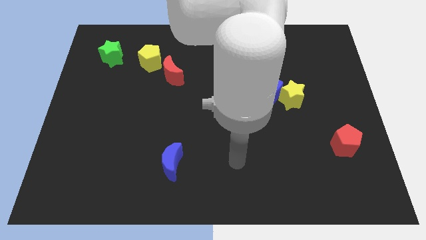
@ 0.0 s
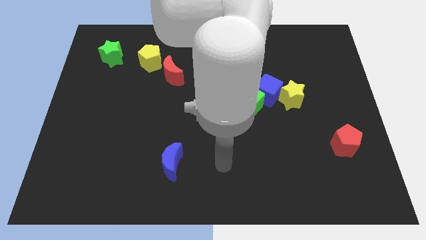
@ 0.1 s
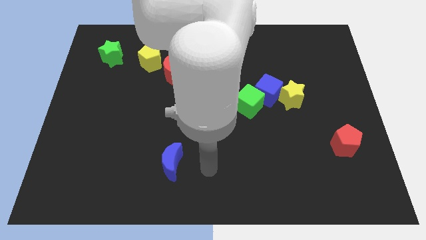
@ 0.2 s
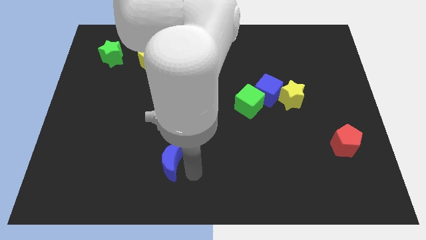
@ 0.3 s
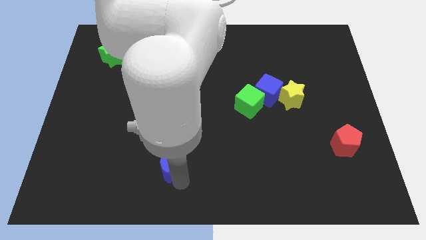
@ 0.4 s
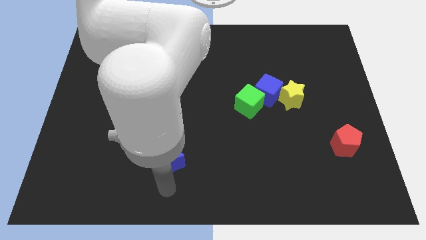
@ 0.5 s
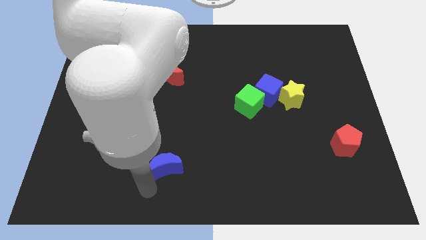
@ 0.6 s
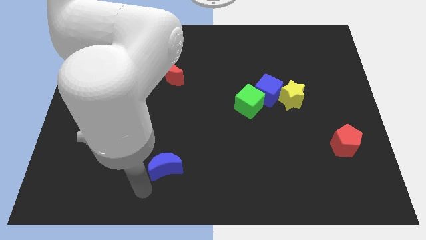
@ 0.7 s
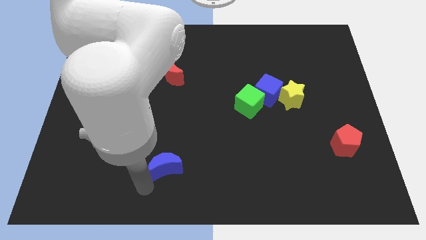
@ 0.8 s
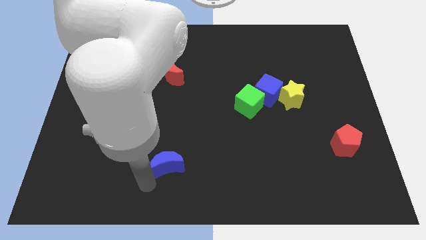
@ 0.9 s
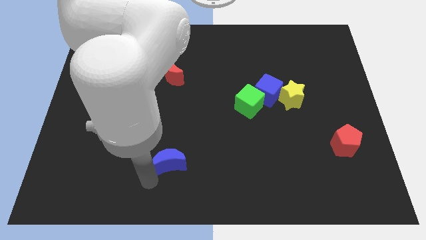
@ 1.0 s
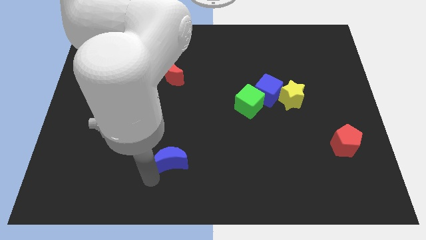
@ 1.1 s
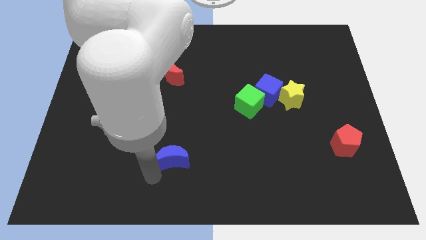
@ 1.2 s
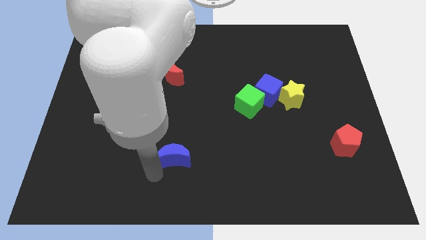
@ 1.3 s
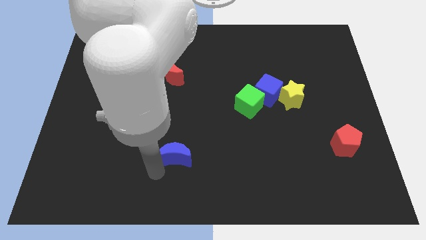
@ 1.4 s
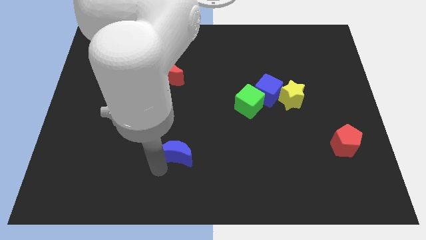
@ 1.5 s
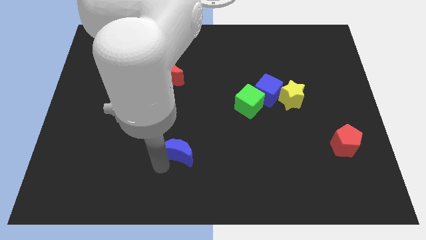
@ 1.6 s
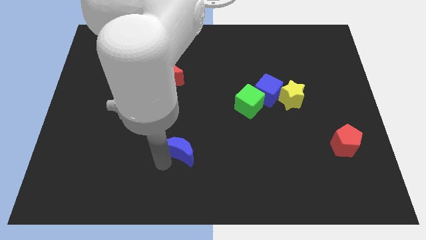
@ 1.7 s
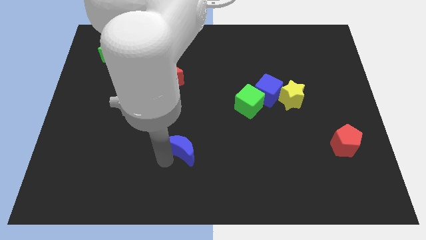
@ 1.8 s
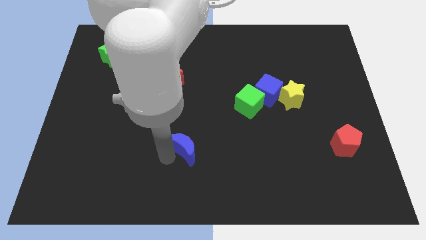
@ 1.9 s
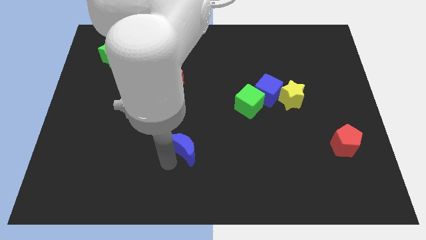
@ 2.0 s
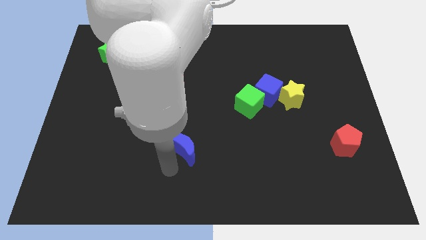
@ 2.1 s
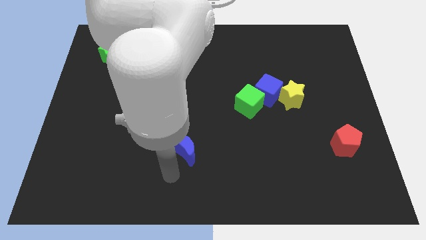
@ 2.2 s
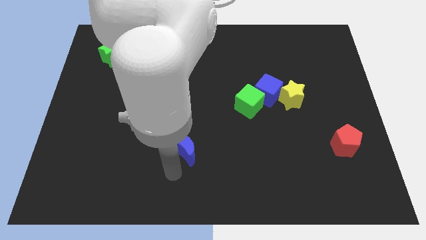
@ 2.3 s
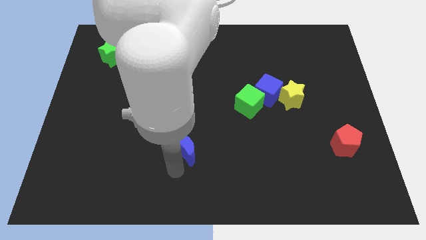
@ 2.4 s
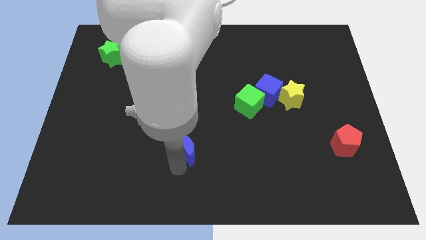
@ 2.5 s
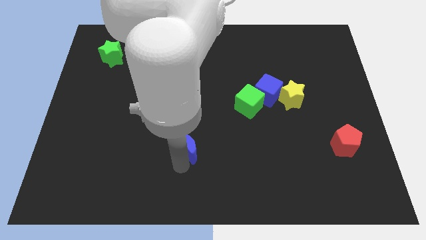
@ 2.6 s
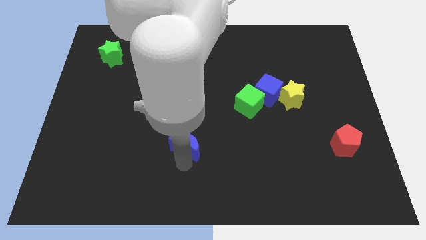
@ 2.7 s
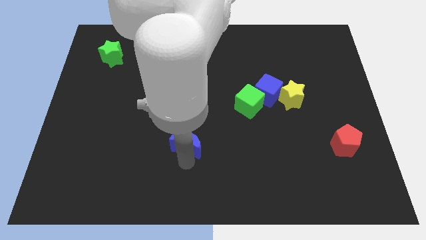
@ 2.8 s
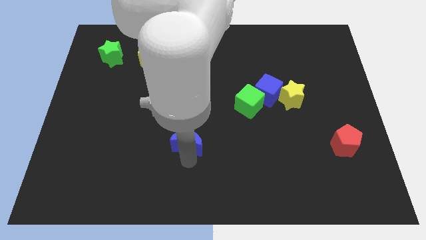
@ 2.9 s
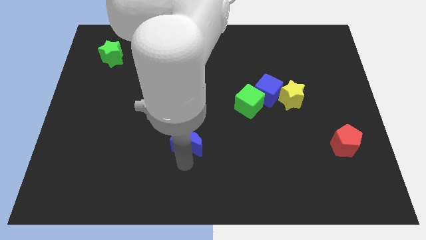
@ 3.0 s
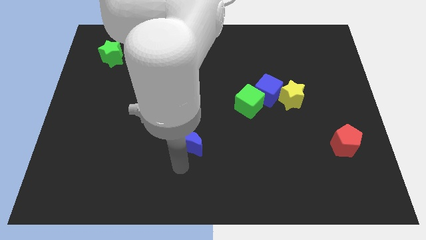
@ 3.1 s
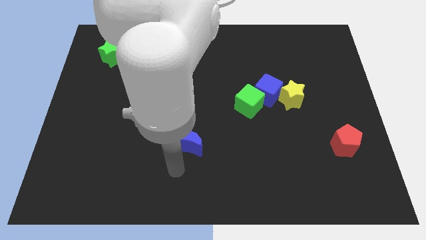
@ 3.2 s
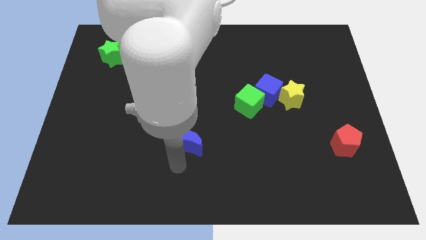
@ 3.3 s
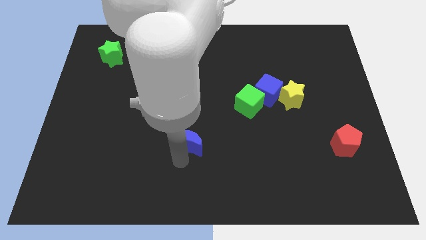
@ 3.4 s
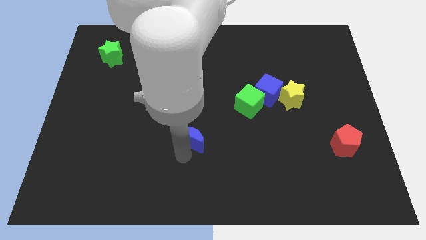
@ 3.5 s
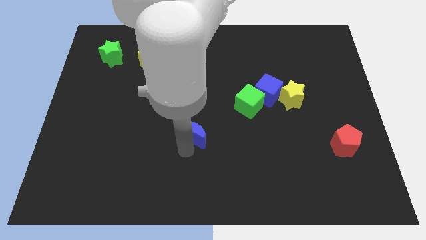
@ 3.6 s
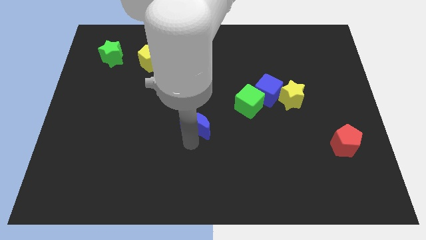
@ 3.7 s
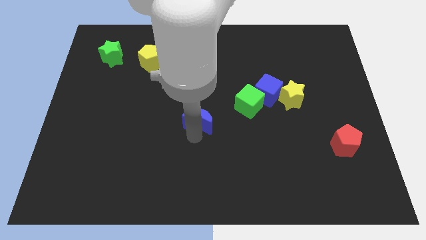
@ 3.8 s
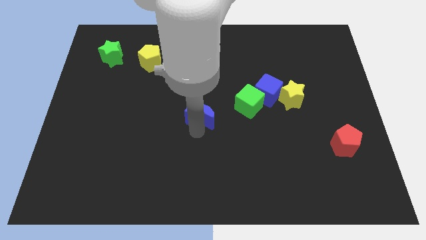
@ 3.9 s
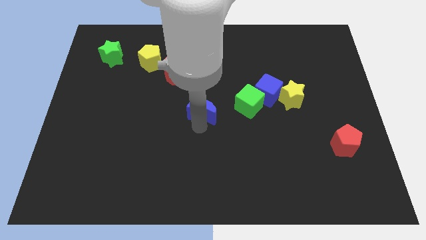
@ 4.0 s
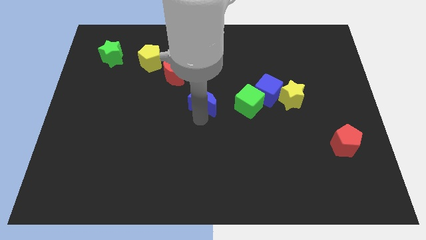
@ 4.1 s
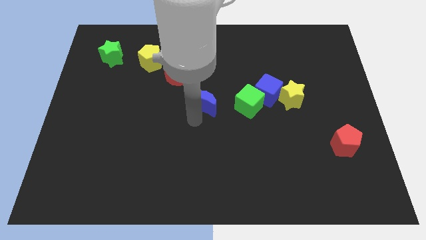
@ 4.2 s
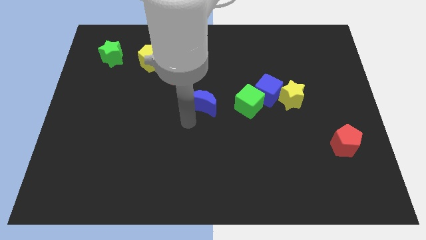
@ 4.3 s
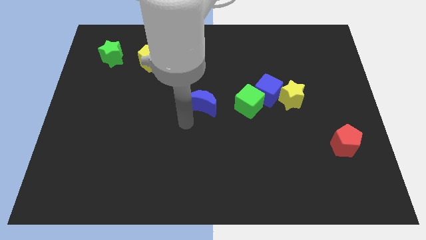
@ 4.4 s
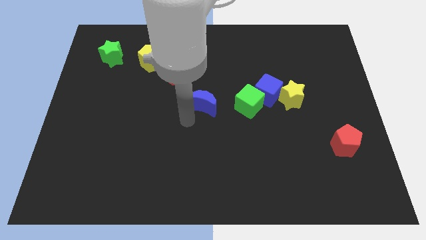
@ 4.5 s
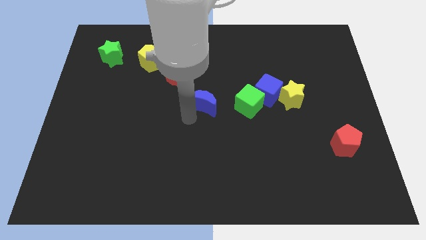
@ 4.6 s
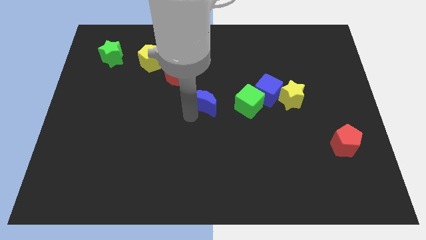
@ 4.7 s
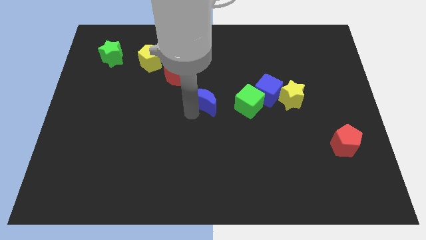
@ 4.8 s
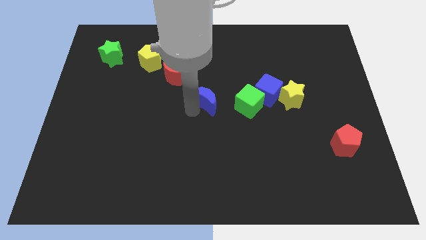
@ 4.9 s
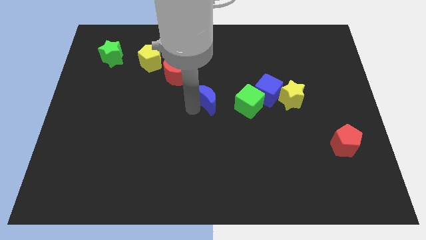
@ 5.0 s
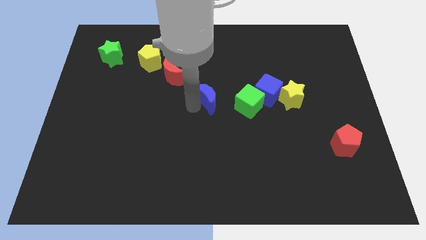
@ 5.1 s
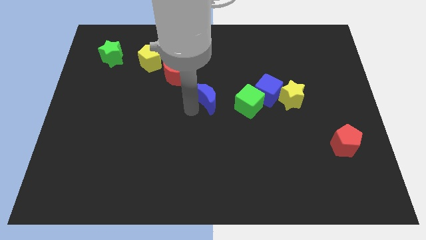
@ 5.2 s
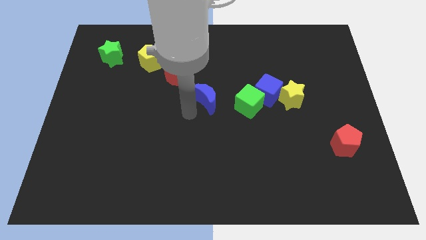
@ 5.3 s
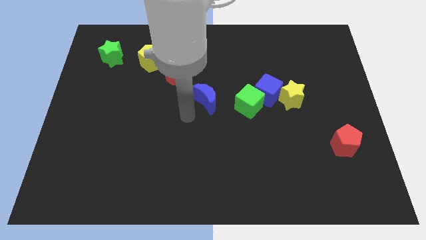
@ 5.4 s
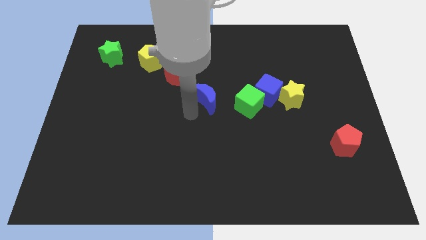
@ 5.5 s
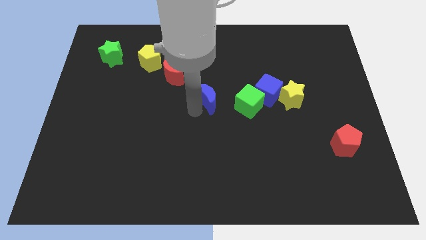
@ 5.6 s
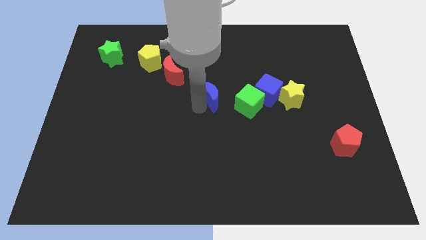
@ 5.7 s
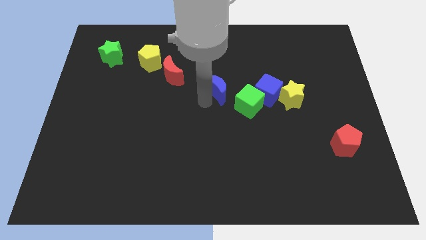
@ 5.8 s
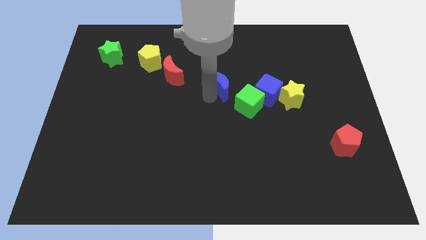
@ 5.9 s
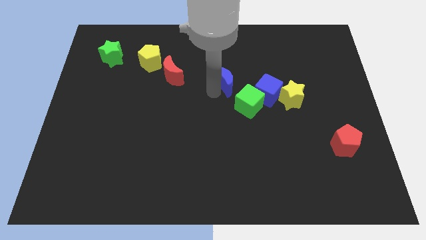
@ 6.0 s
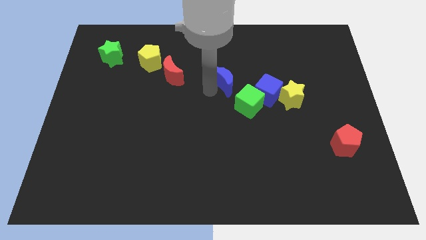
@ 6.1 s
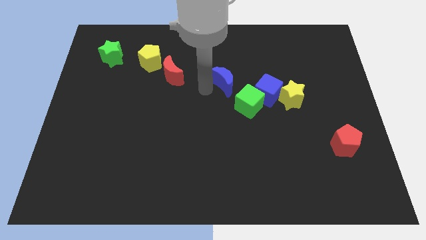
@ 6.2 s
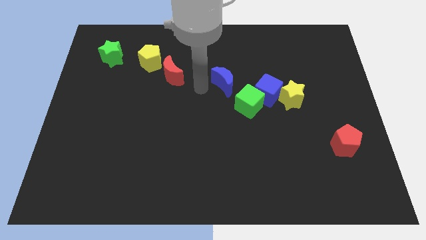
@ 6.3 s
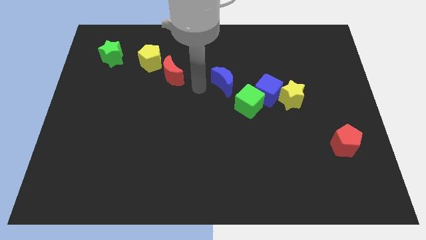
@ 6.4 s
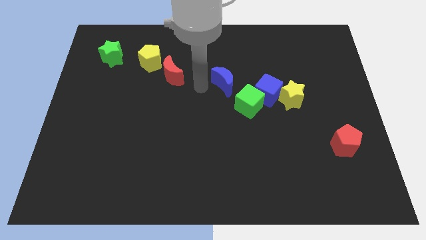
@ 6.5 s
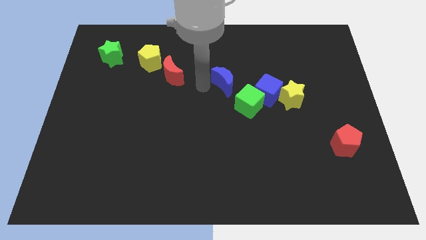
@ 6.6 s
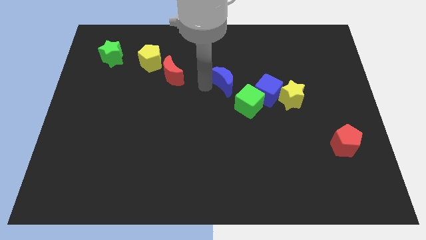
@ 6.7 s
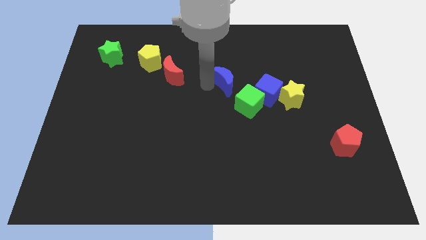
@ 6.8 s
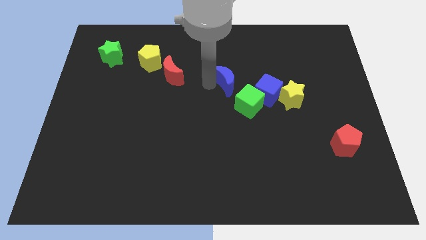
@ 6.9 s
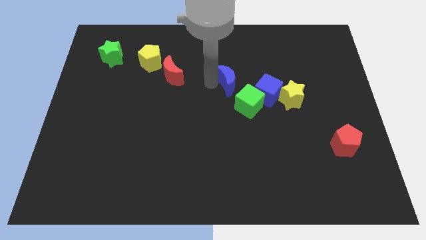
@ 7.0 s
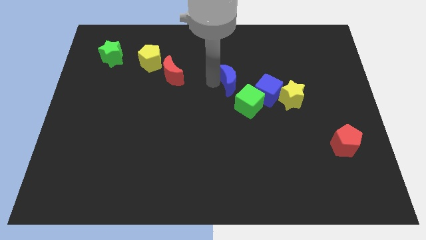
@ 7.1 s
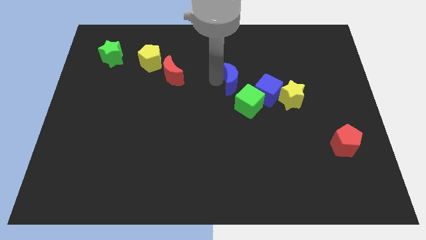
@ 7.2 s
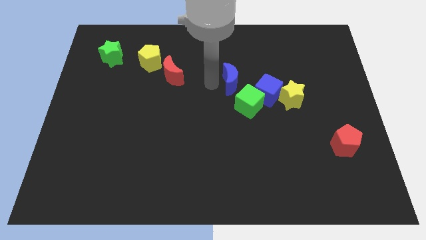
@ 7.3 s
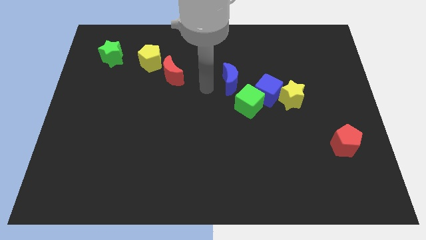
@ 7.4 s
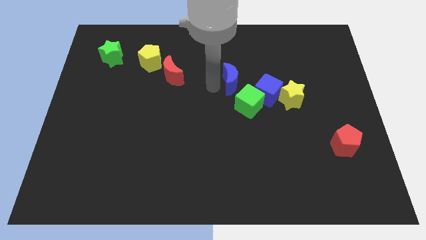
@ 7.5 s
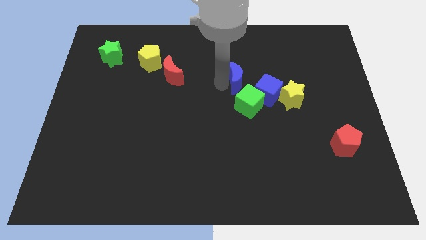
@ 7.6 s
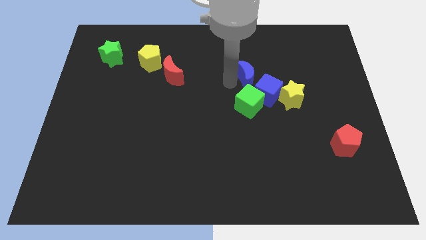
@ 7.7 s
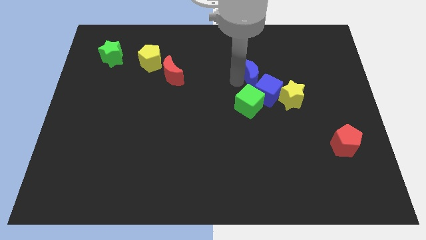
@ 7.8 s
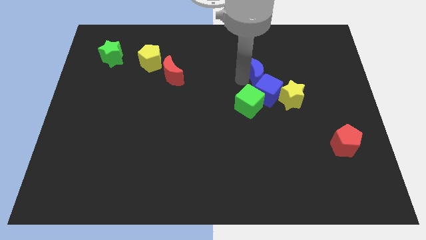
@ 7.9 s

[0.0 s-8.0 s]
put the blue moon diagonally up and to the right of the green cube
